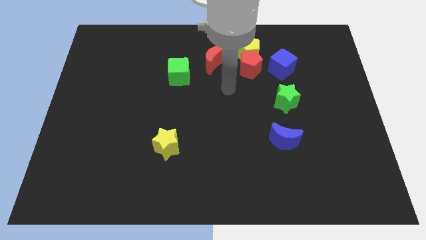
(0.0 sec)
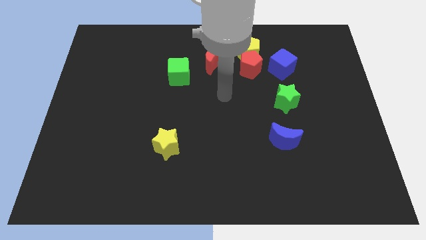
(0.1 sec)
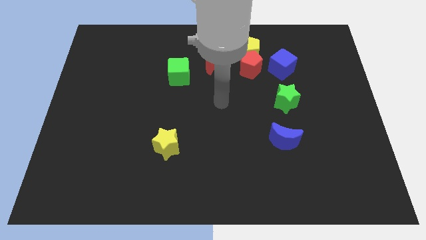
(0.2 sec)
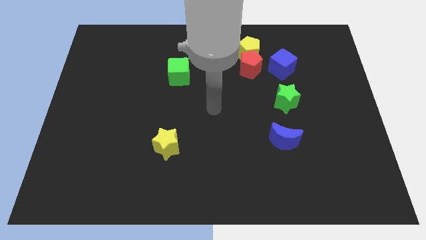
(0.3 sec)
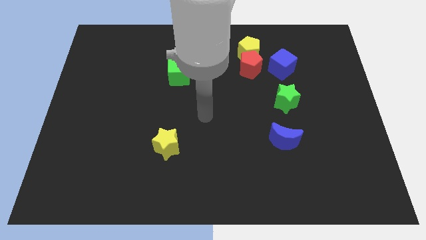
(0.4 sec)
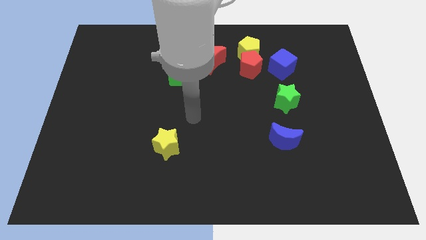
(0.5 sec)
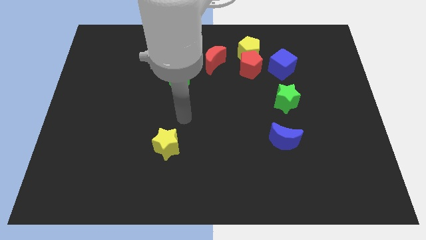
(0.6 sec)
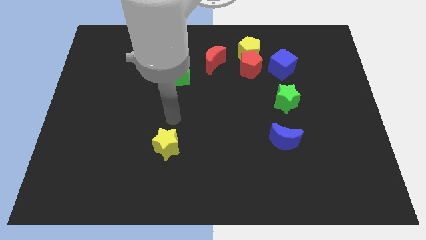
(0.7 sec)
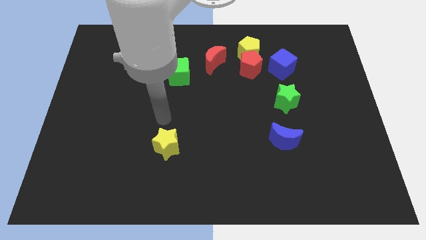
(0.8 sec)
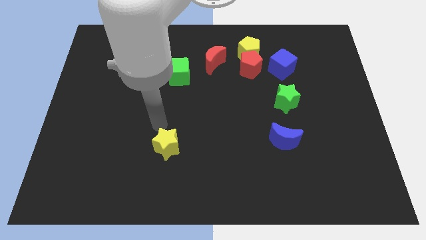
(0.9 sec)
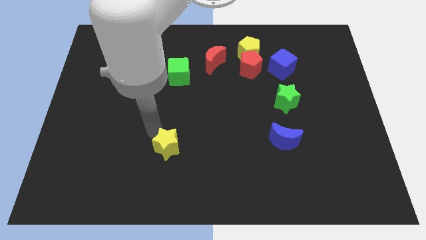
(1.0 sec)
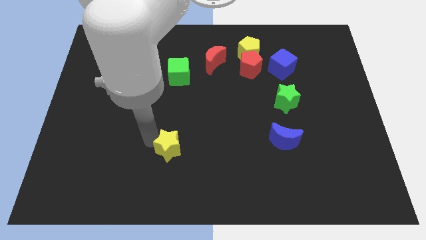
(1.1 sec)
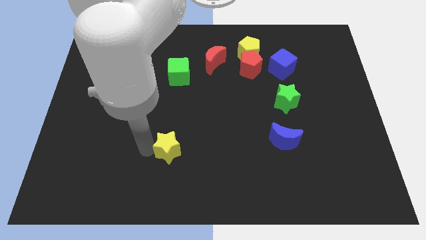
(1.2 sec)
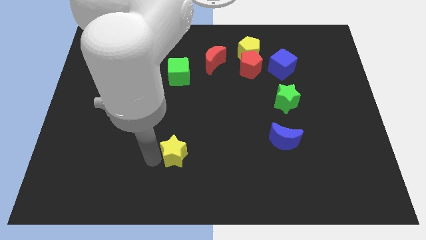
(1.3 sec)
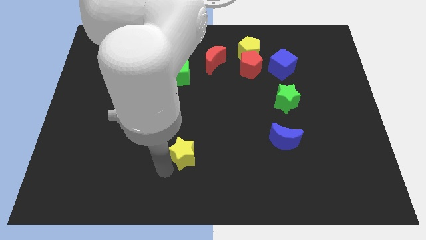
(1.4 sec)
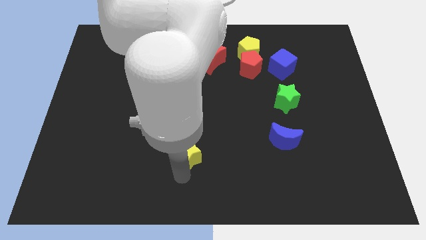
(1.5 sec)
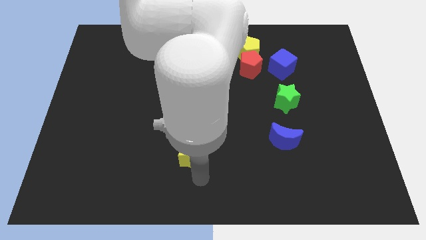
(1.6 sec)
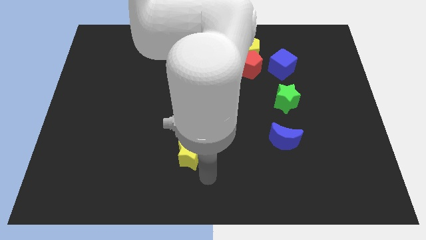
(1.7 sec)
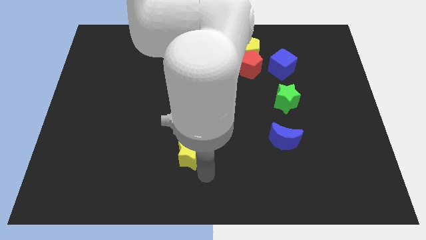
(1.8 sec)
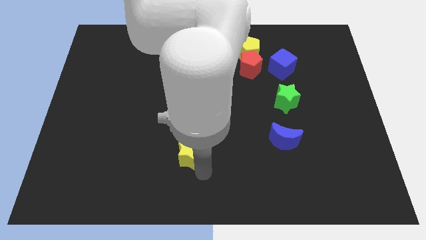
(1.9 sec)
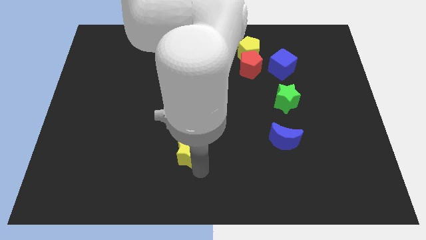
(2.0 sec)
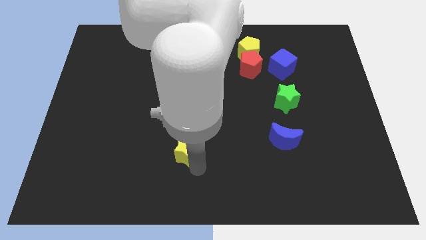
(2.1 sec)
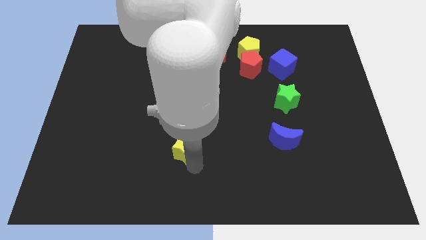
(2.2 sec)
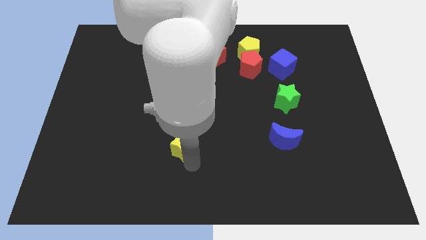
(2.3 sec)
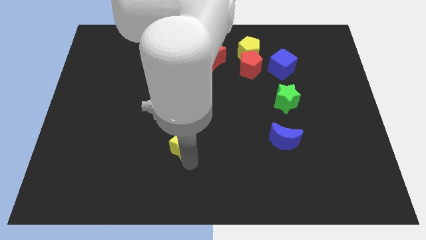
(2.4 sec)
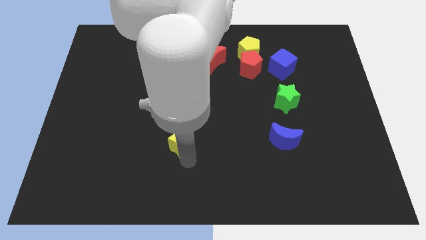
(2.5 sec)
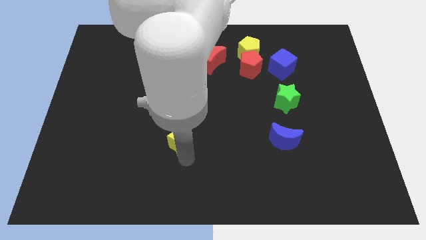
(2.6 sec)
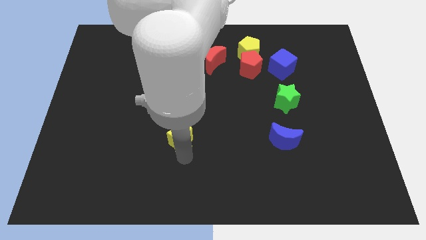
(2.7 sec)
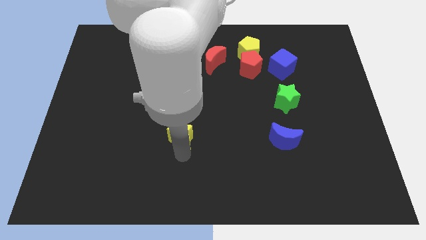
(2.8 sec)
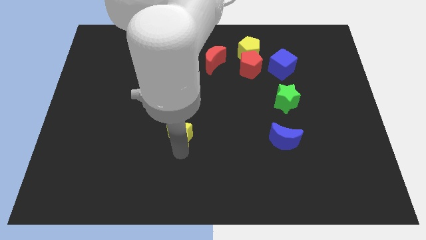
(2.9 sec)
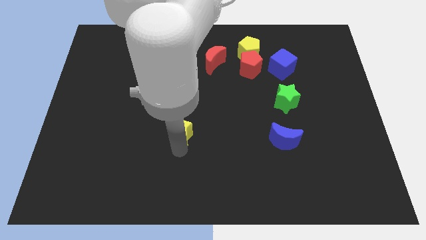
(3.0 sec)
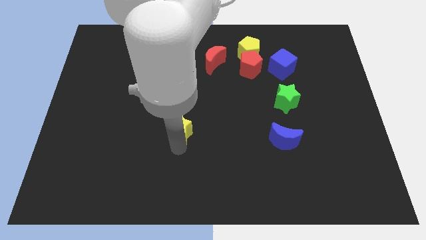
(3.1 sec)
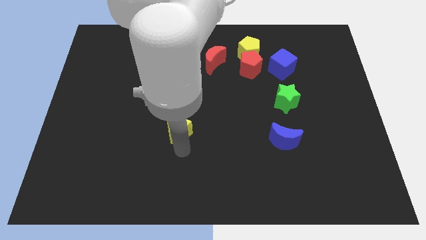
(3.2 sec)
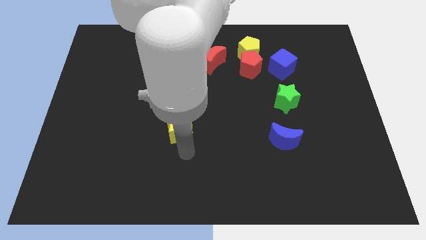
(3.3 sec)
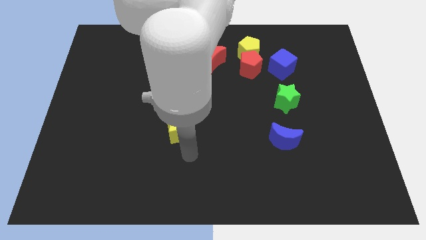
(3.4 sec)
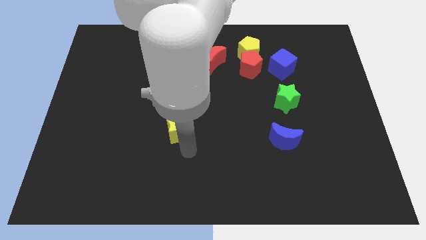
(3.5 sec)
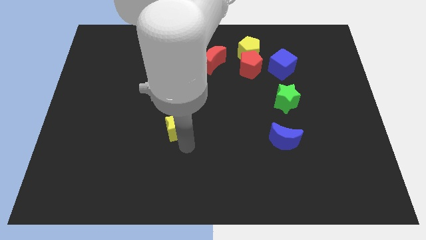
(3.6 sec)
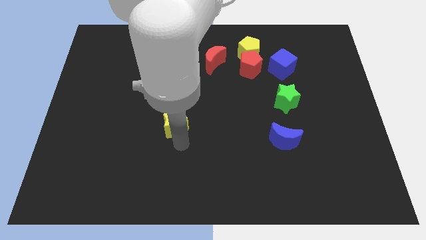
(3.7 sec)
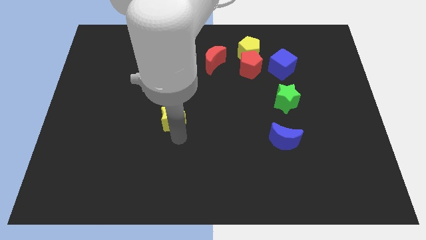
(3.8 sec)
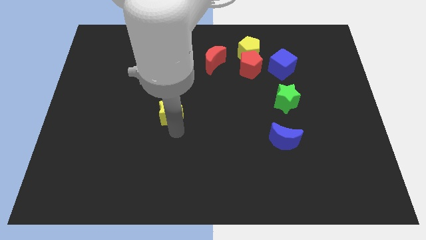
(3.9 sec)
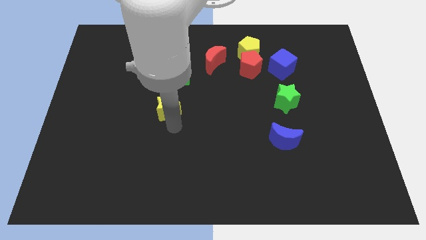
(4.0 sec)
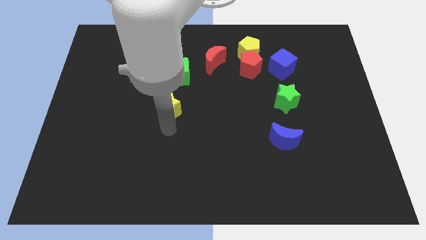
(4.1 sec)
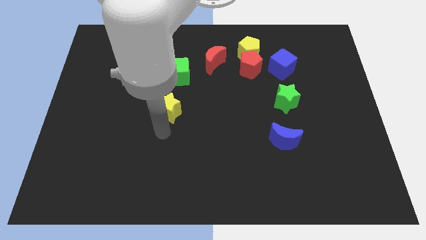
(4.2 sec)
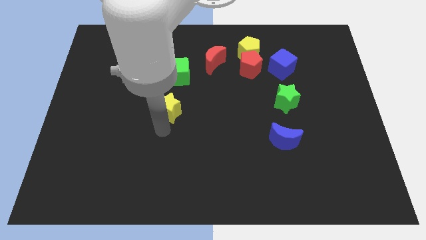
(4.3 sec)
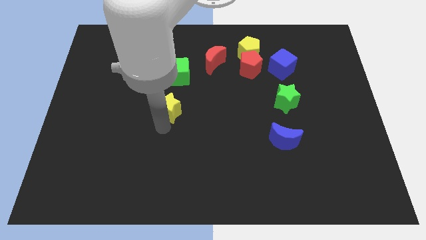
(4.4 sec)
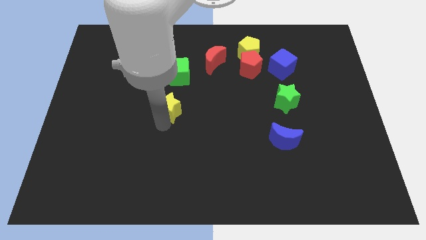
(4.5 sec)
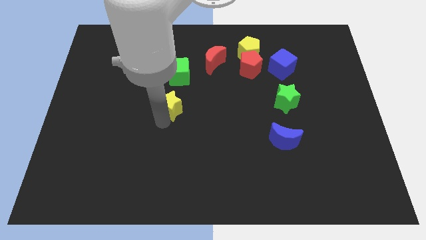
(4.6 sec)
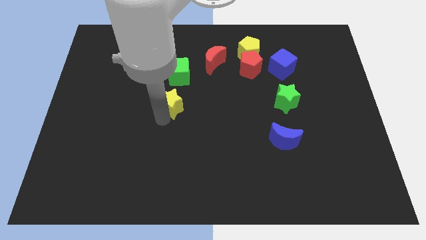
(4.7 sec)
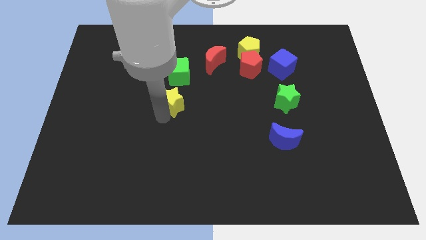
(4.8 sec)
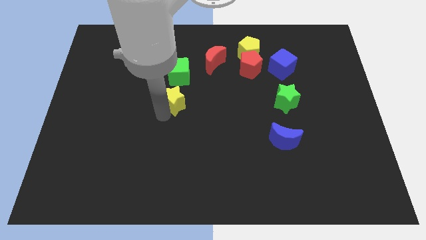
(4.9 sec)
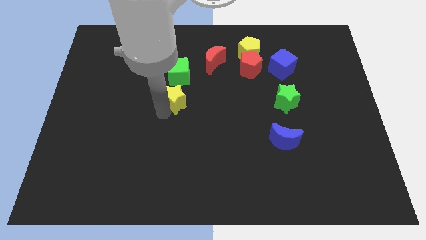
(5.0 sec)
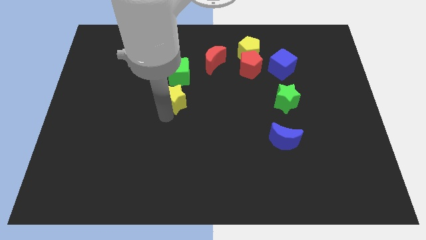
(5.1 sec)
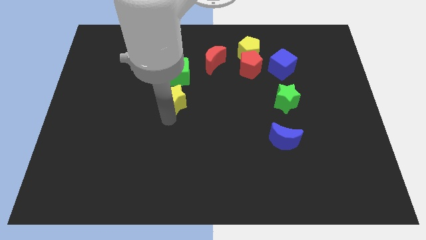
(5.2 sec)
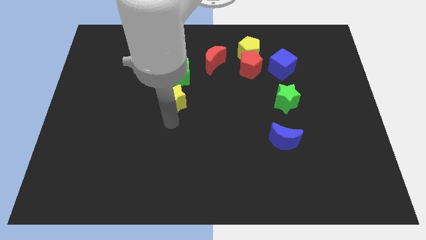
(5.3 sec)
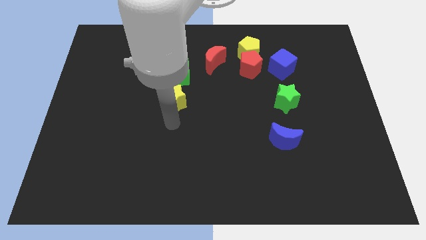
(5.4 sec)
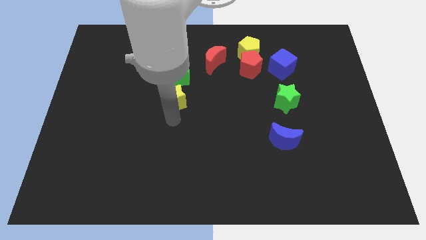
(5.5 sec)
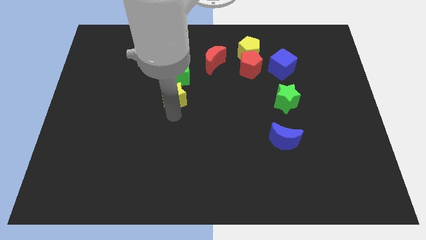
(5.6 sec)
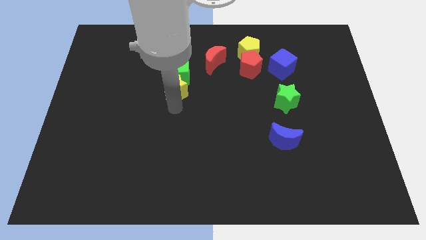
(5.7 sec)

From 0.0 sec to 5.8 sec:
slide the yellow star close to the green cube

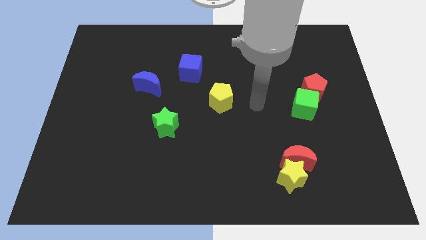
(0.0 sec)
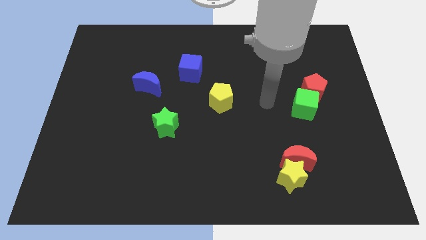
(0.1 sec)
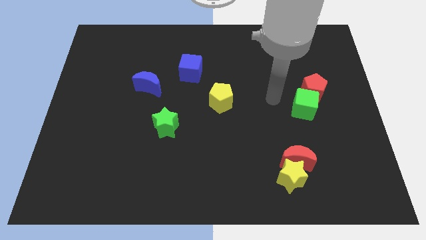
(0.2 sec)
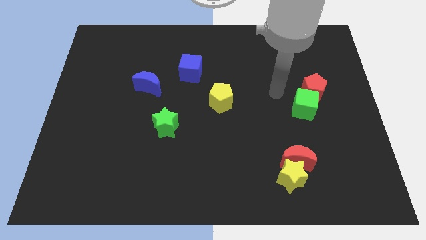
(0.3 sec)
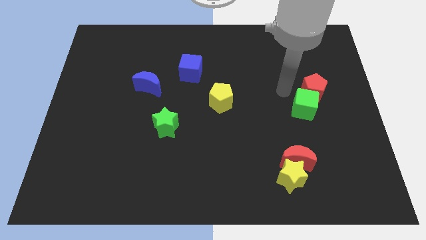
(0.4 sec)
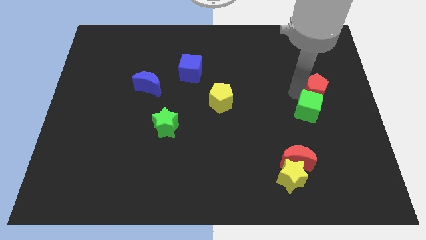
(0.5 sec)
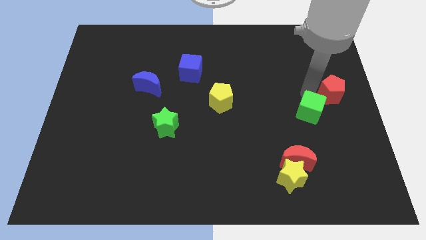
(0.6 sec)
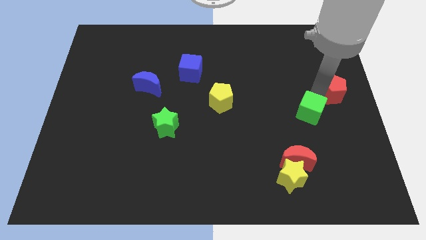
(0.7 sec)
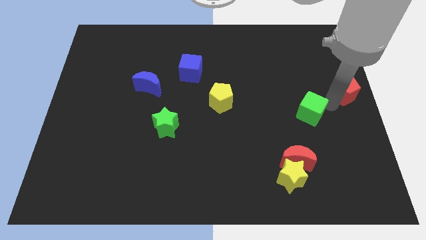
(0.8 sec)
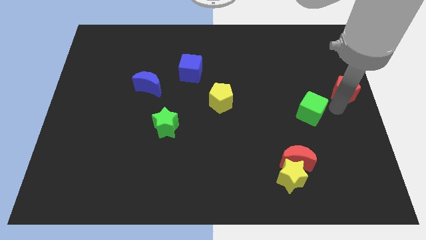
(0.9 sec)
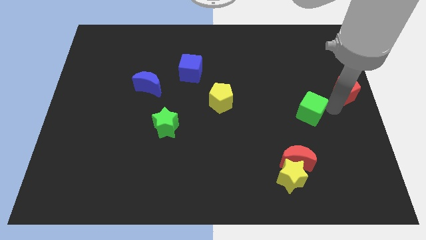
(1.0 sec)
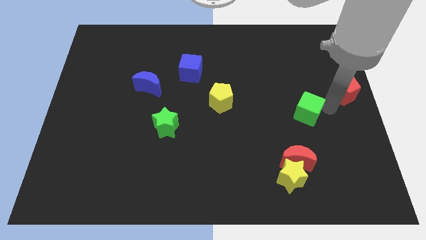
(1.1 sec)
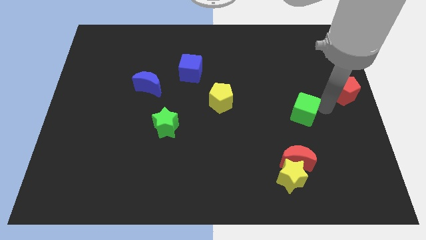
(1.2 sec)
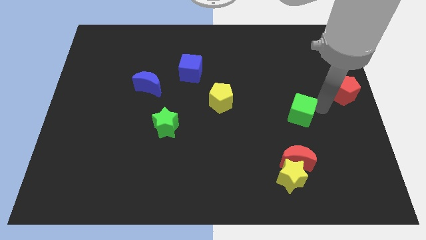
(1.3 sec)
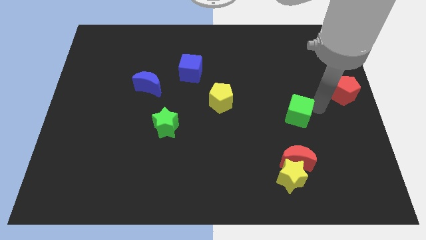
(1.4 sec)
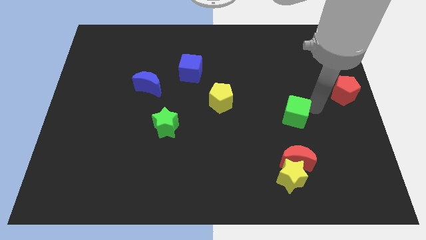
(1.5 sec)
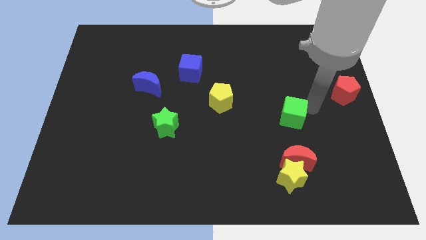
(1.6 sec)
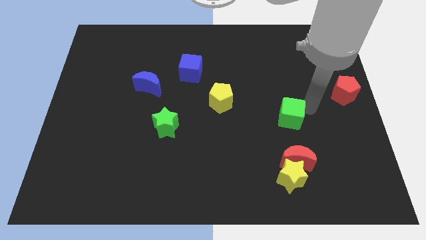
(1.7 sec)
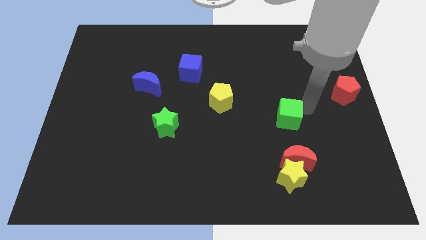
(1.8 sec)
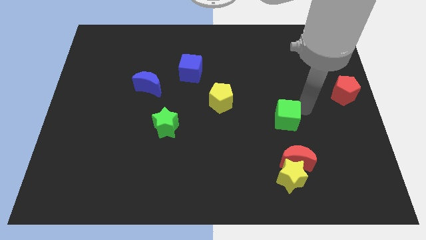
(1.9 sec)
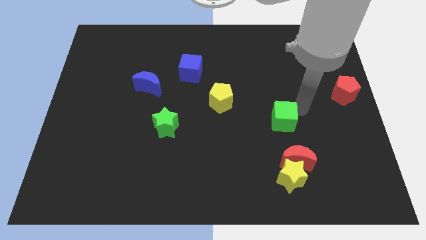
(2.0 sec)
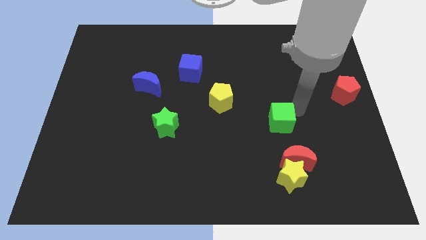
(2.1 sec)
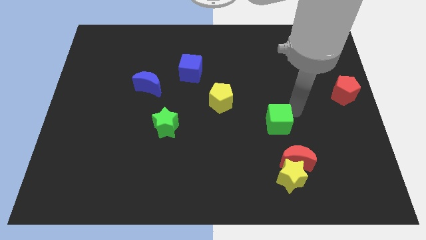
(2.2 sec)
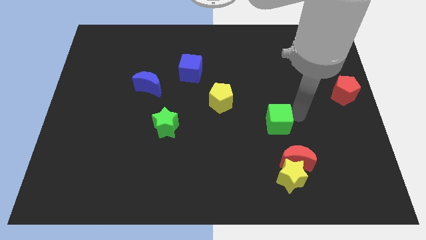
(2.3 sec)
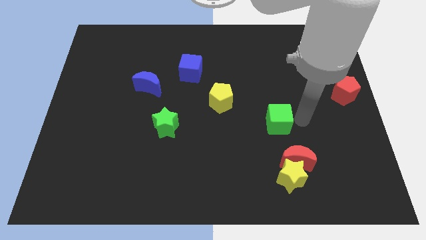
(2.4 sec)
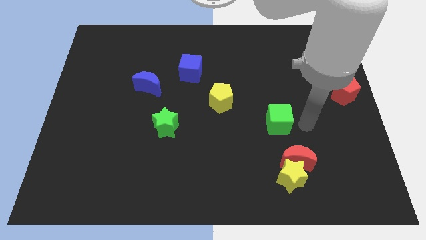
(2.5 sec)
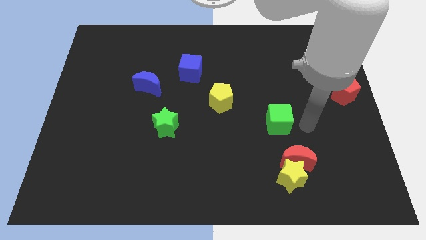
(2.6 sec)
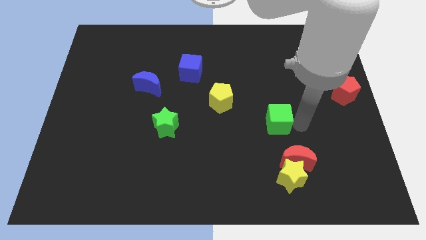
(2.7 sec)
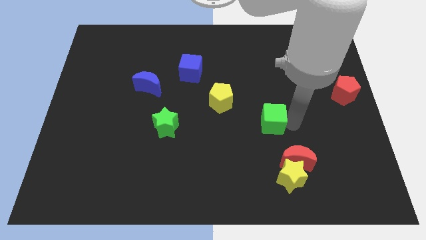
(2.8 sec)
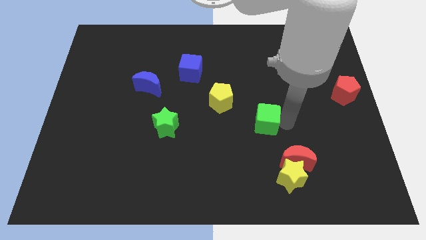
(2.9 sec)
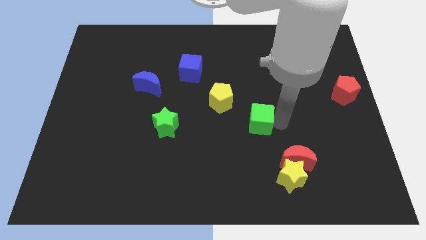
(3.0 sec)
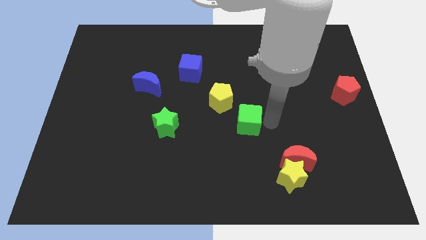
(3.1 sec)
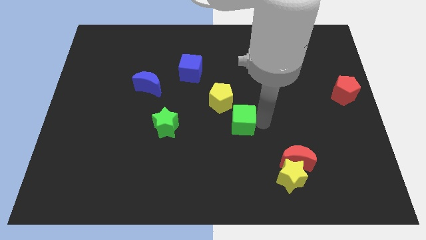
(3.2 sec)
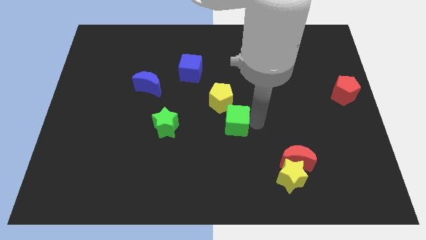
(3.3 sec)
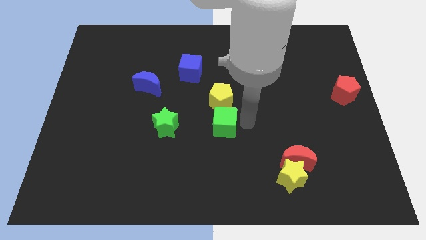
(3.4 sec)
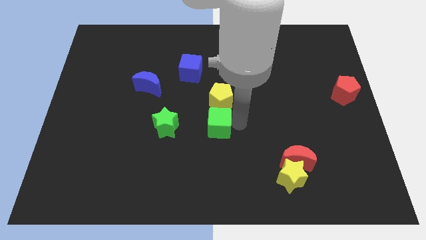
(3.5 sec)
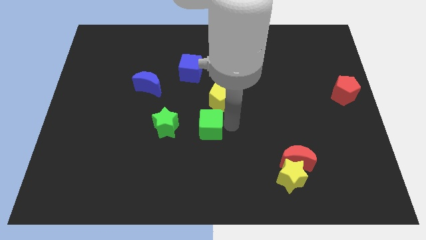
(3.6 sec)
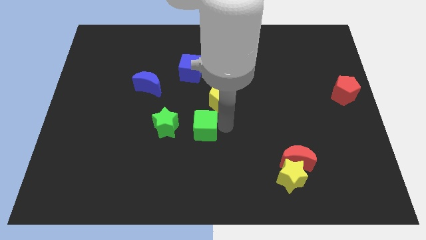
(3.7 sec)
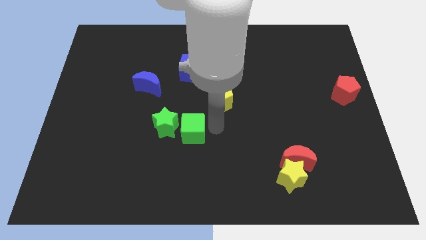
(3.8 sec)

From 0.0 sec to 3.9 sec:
move the green cube close to the green star
